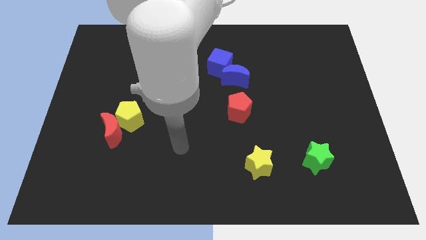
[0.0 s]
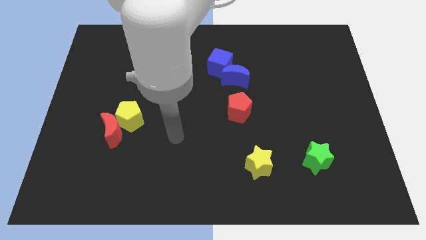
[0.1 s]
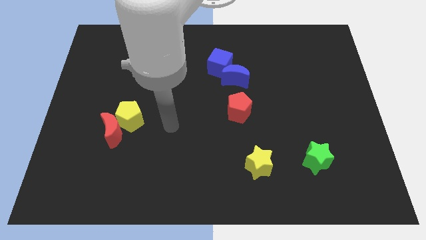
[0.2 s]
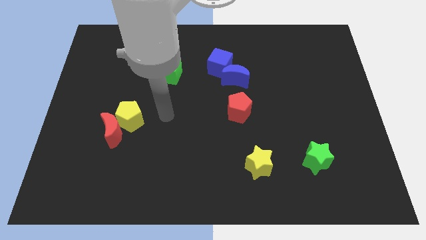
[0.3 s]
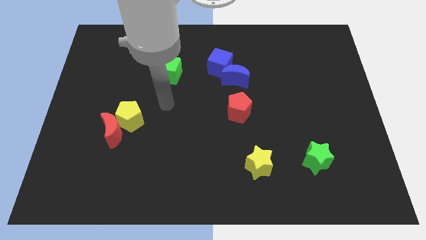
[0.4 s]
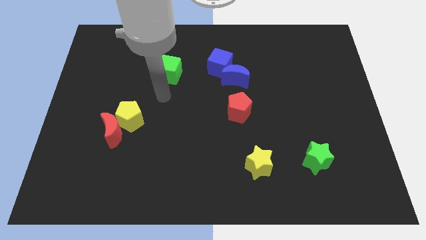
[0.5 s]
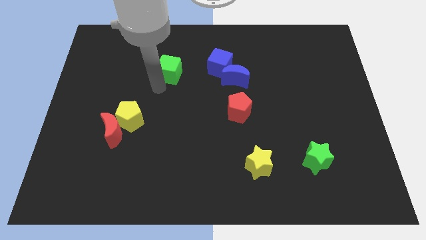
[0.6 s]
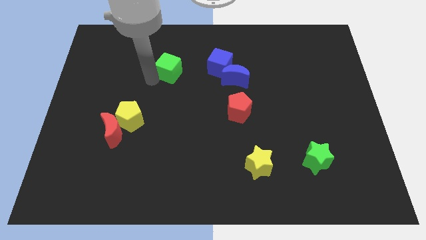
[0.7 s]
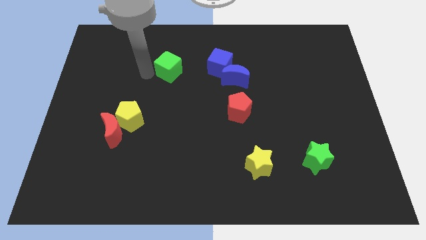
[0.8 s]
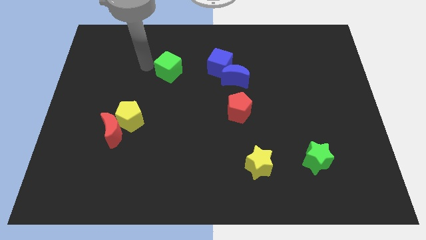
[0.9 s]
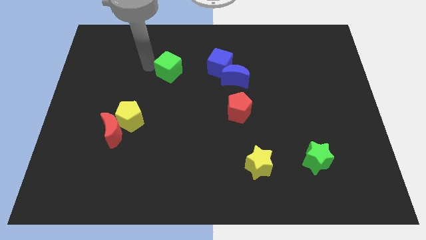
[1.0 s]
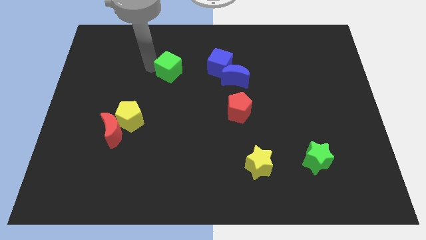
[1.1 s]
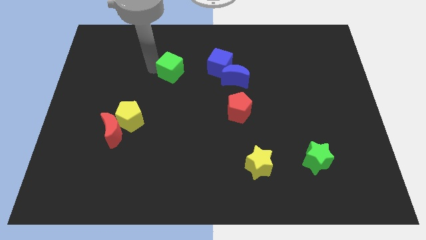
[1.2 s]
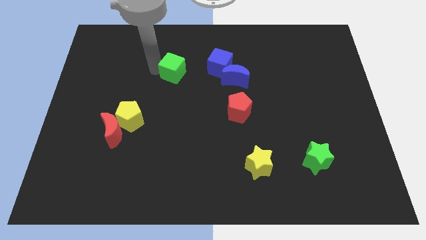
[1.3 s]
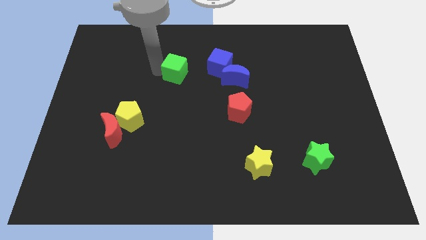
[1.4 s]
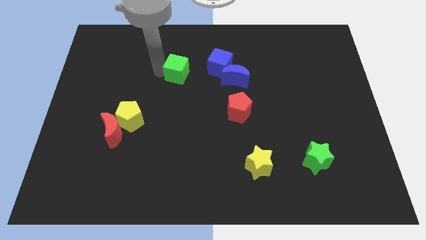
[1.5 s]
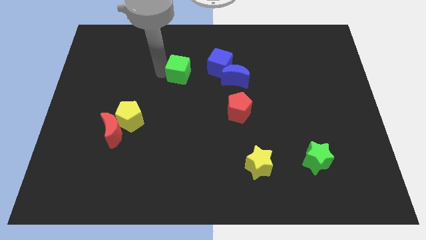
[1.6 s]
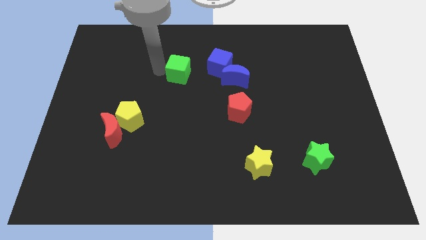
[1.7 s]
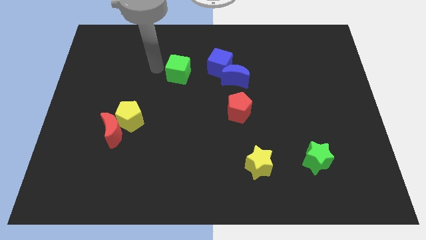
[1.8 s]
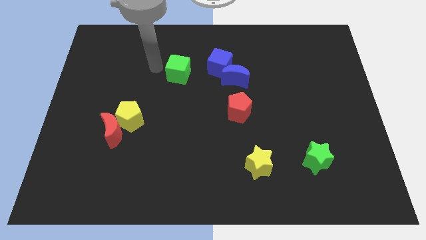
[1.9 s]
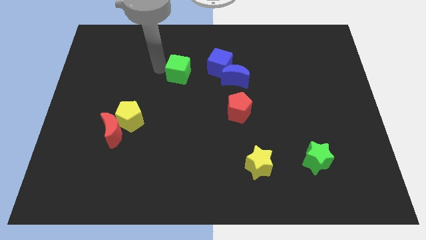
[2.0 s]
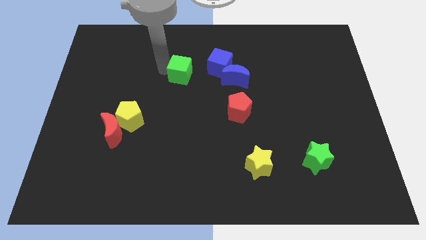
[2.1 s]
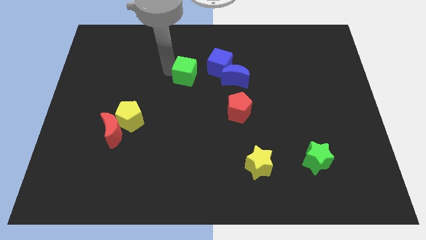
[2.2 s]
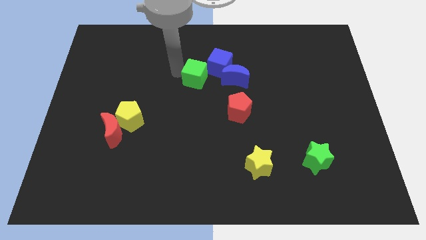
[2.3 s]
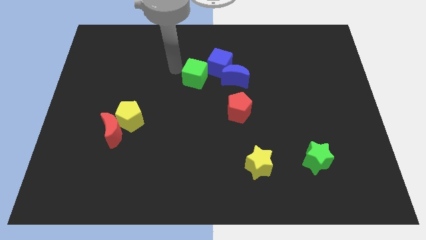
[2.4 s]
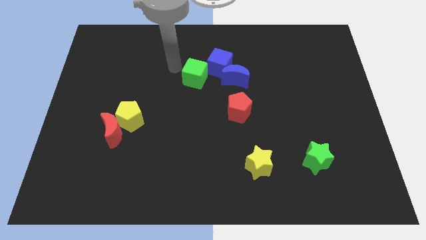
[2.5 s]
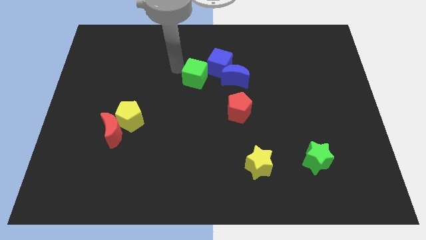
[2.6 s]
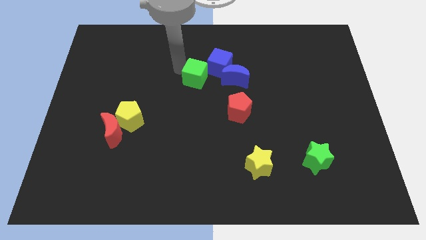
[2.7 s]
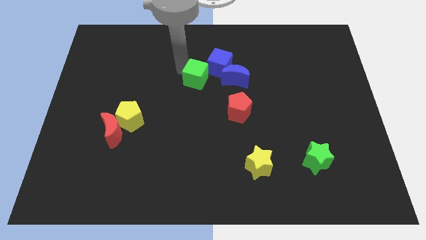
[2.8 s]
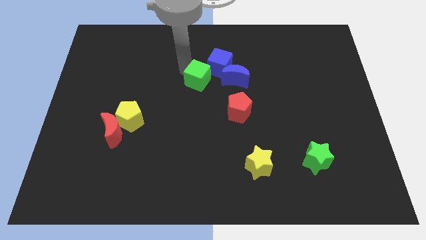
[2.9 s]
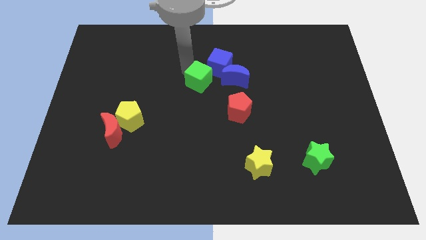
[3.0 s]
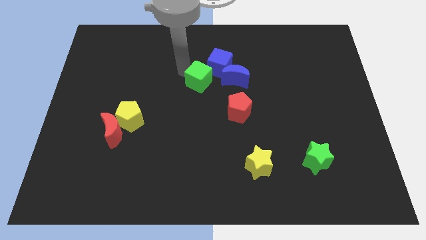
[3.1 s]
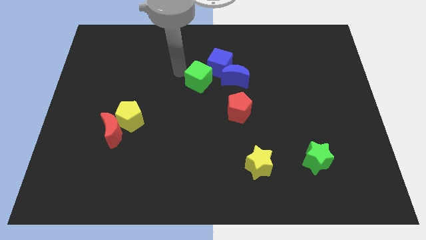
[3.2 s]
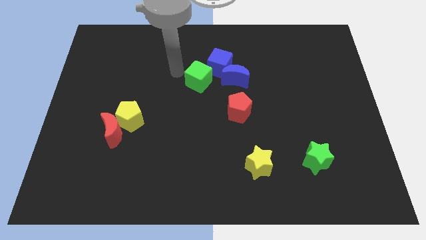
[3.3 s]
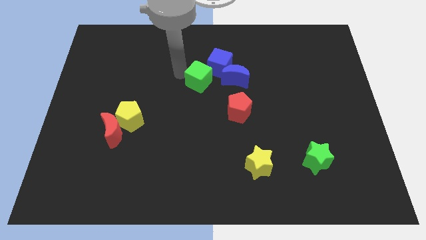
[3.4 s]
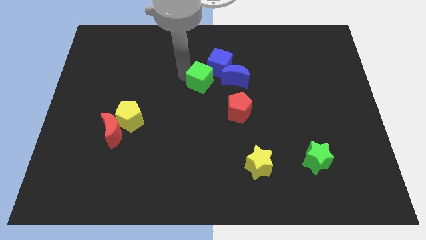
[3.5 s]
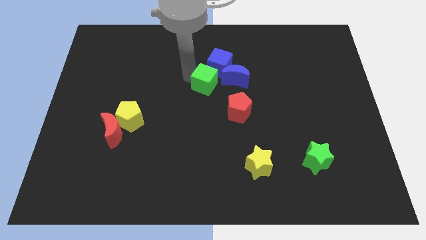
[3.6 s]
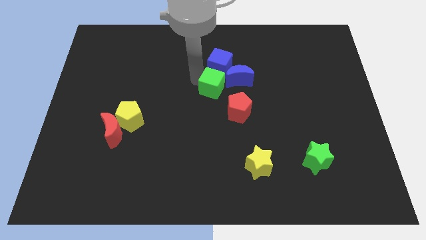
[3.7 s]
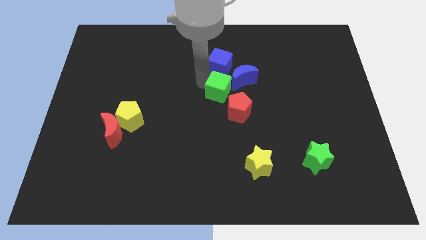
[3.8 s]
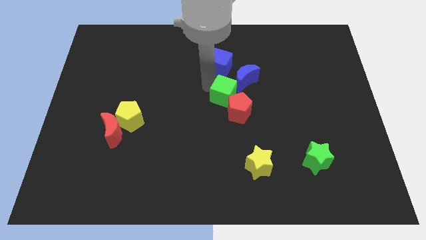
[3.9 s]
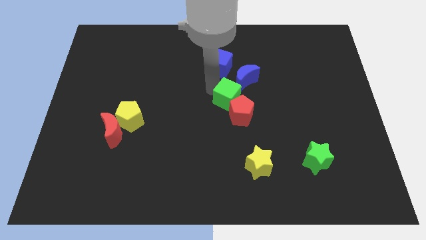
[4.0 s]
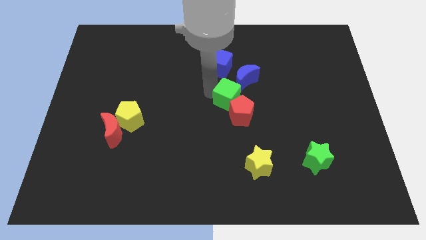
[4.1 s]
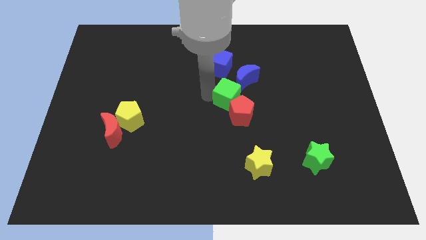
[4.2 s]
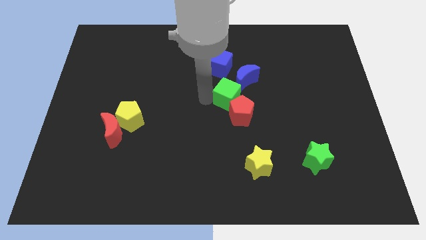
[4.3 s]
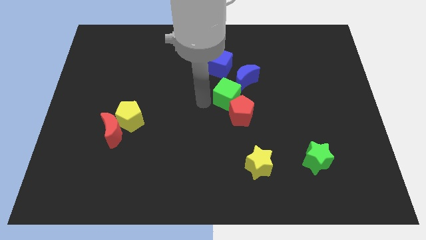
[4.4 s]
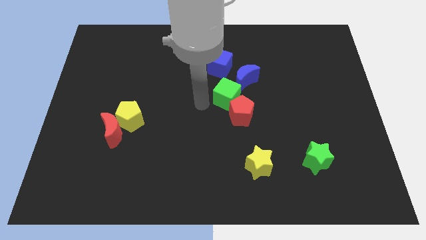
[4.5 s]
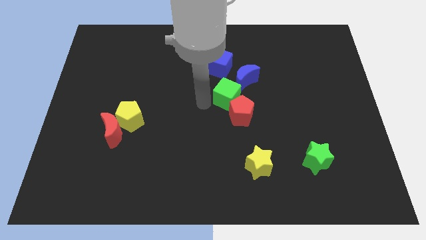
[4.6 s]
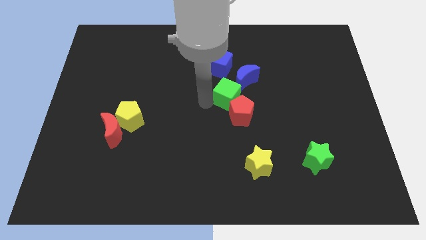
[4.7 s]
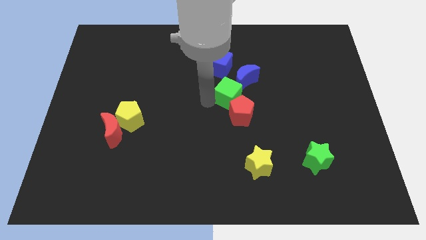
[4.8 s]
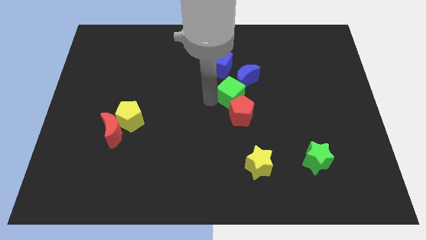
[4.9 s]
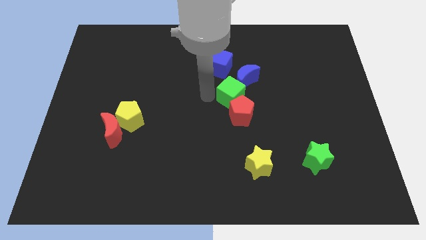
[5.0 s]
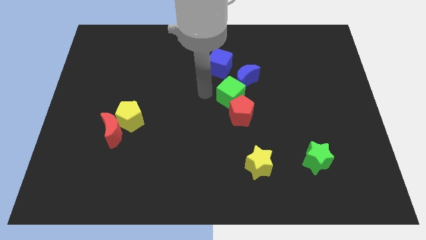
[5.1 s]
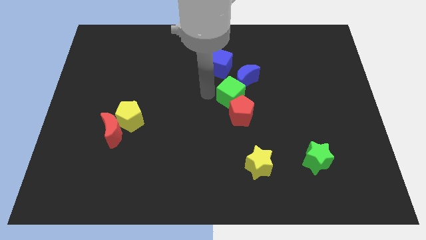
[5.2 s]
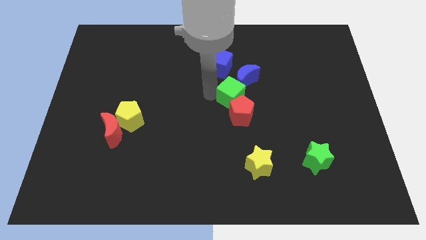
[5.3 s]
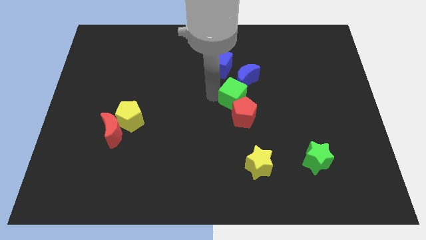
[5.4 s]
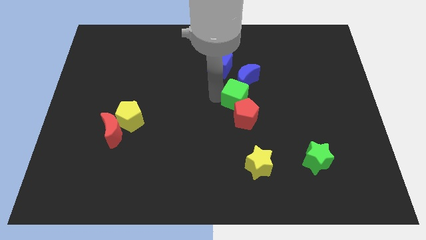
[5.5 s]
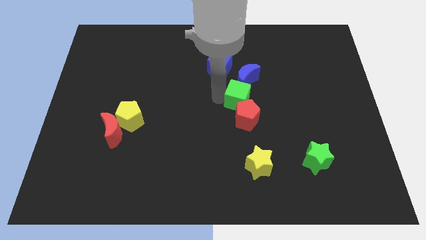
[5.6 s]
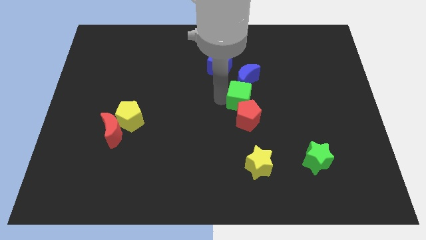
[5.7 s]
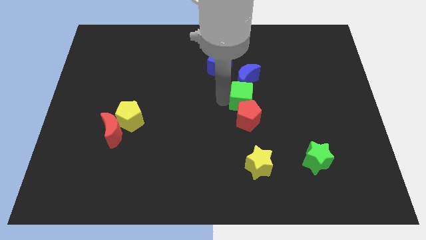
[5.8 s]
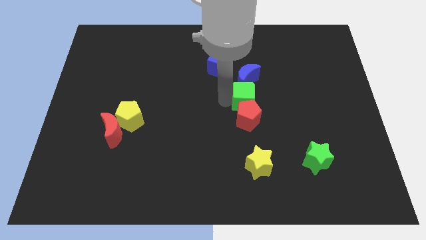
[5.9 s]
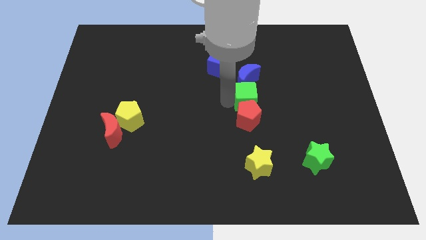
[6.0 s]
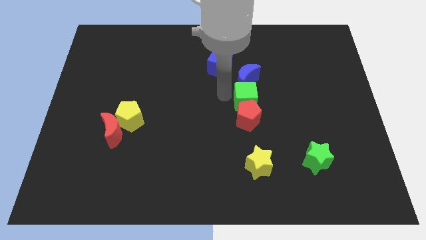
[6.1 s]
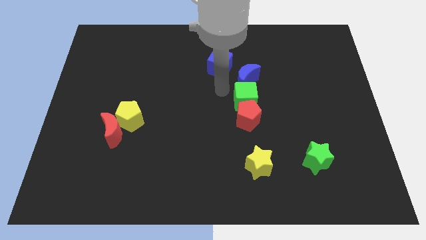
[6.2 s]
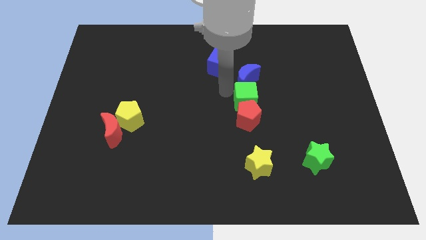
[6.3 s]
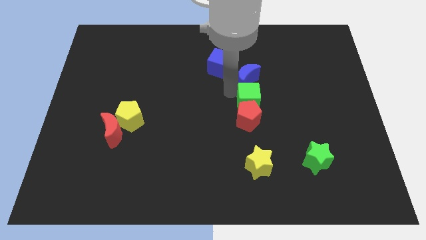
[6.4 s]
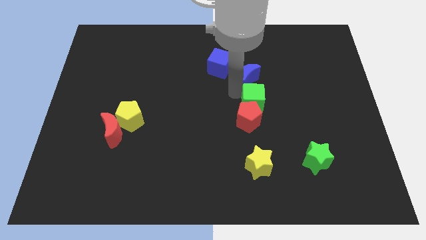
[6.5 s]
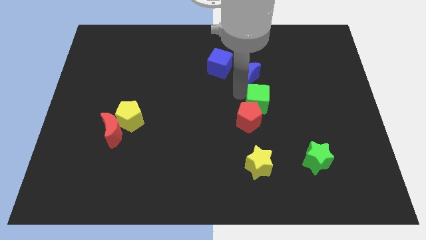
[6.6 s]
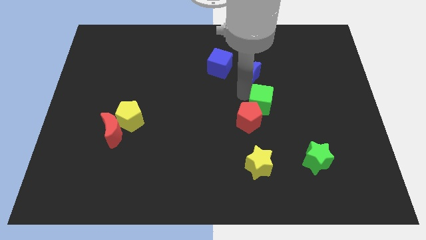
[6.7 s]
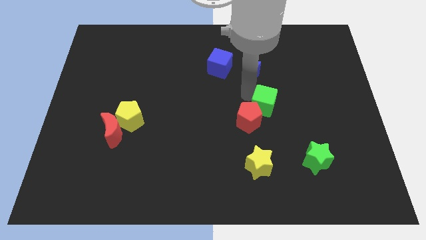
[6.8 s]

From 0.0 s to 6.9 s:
put the green cube to the right side of the red pentagon

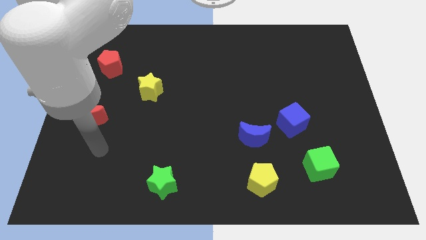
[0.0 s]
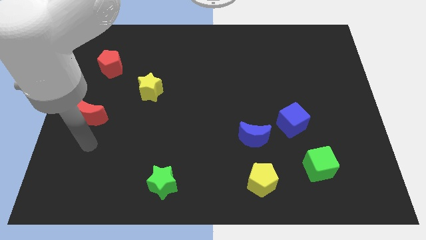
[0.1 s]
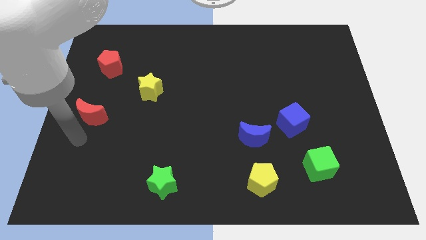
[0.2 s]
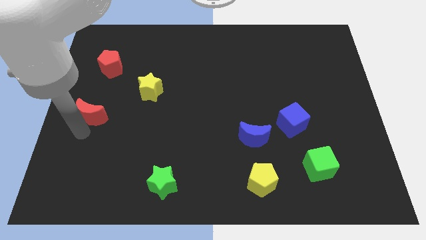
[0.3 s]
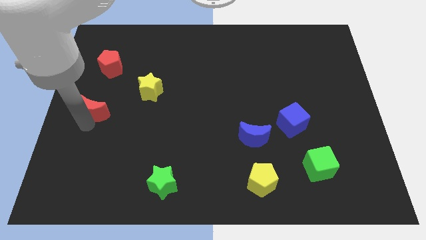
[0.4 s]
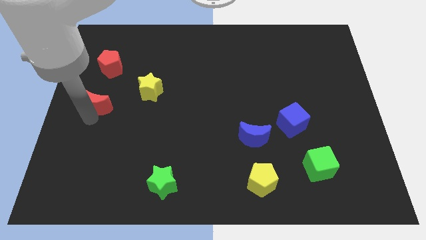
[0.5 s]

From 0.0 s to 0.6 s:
put the red moon to the left side of the yellow star
